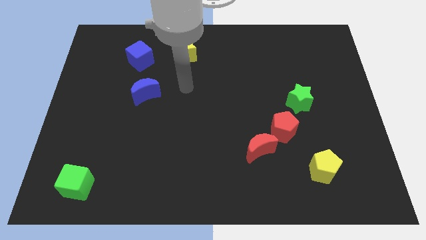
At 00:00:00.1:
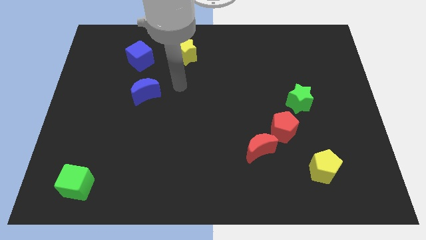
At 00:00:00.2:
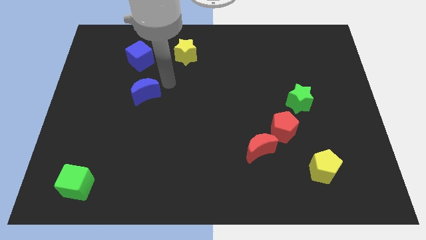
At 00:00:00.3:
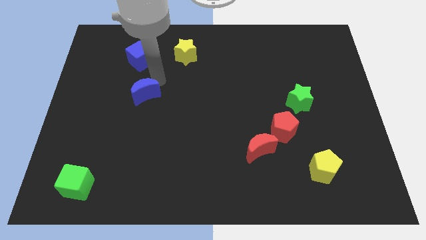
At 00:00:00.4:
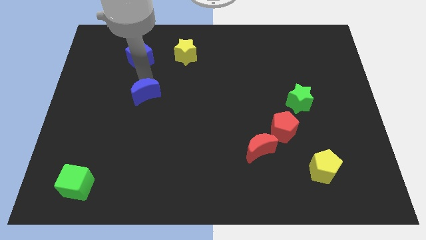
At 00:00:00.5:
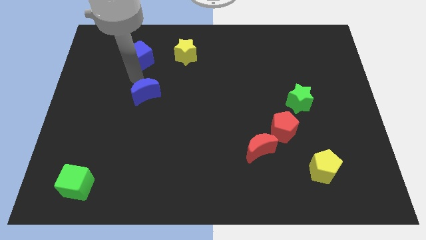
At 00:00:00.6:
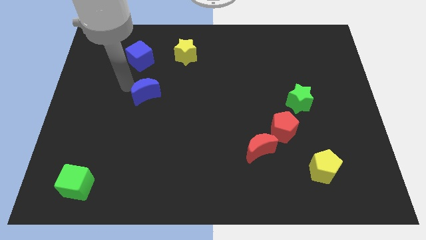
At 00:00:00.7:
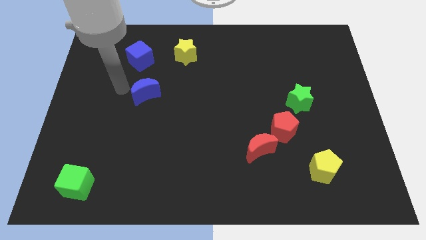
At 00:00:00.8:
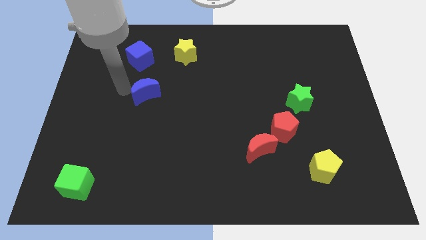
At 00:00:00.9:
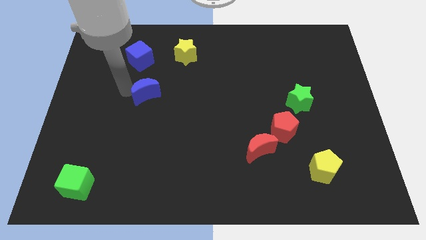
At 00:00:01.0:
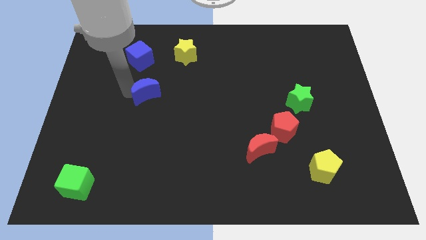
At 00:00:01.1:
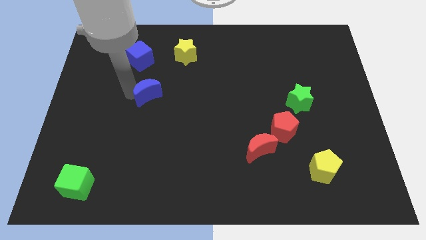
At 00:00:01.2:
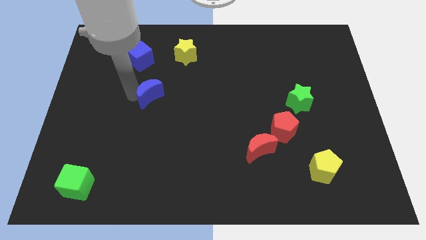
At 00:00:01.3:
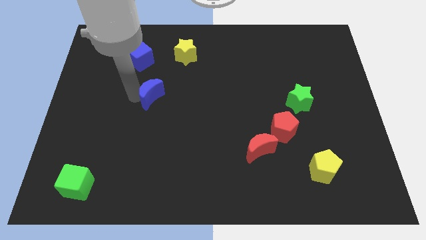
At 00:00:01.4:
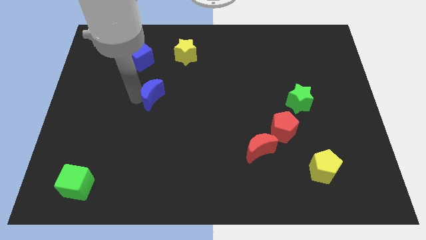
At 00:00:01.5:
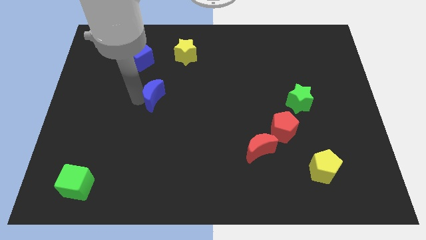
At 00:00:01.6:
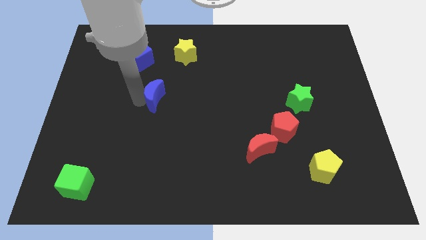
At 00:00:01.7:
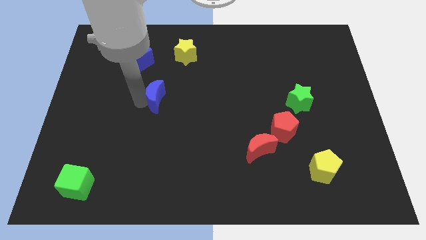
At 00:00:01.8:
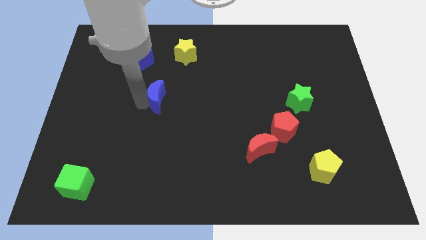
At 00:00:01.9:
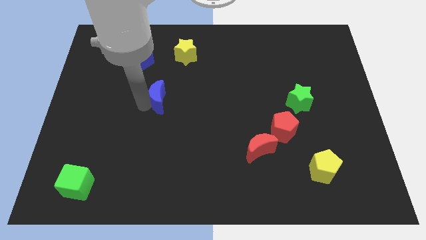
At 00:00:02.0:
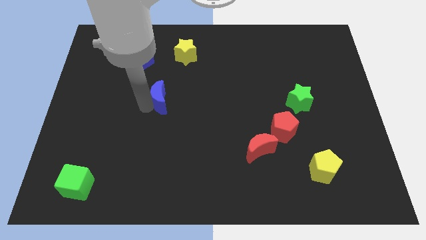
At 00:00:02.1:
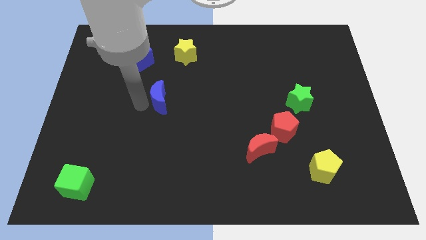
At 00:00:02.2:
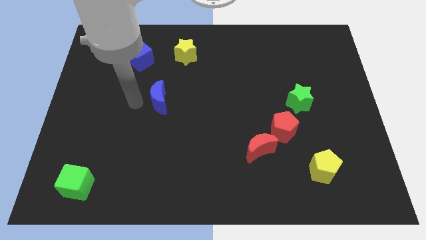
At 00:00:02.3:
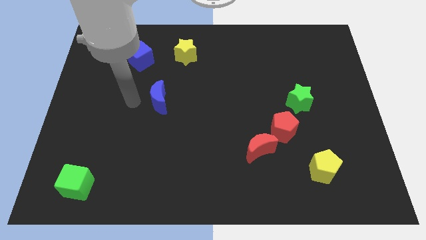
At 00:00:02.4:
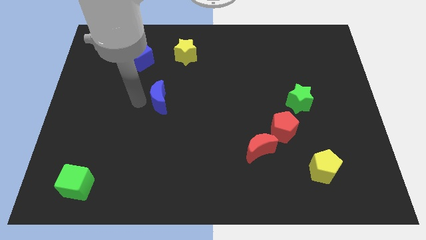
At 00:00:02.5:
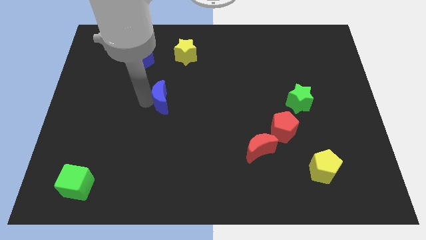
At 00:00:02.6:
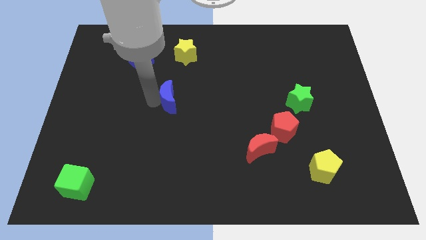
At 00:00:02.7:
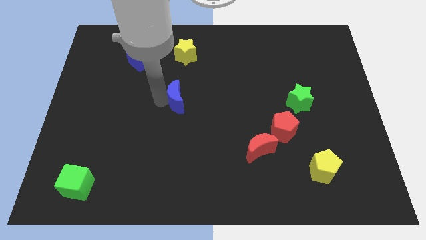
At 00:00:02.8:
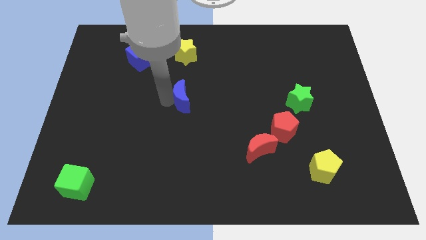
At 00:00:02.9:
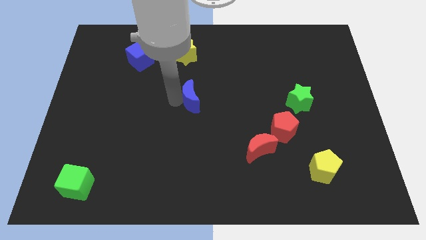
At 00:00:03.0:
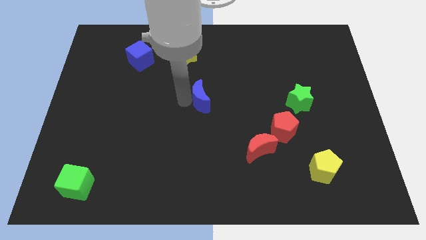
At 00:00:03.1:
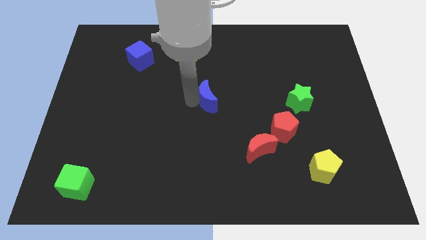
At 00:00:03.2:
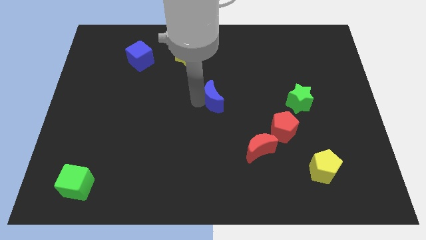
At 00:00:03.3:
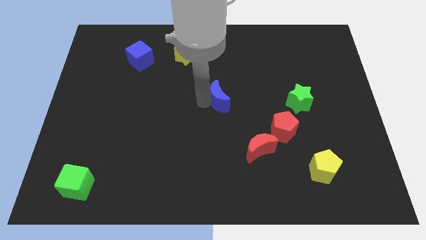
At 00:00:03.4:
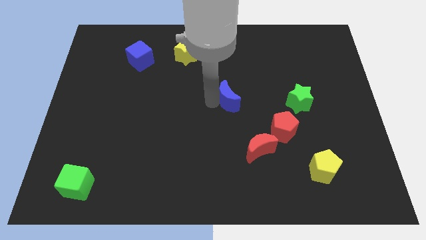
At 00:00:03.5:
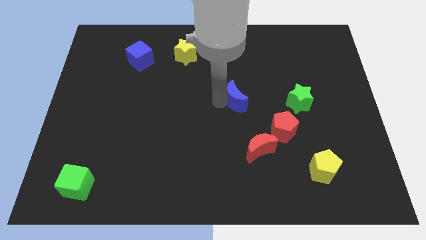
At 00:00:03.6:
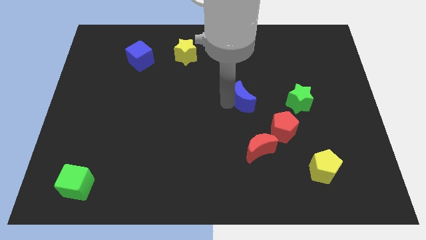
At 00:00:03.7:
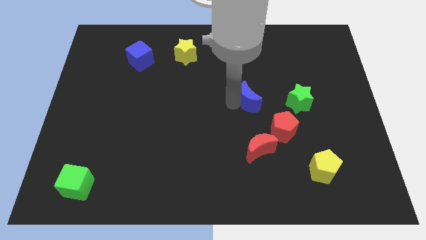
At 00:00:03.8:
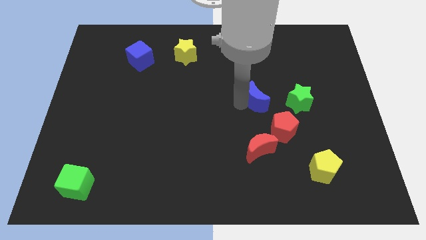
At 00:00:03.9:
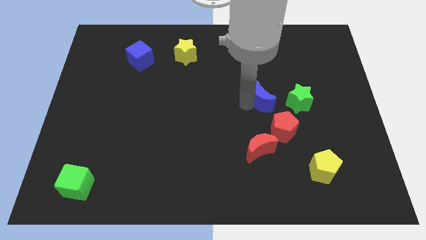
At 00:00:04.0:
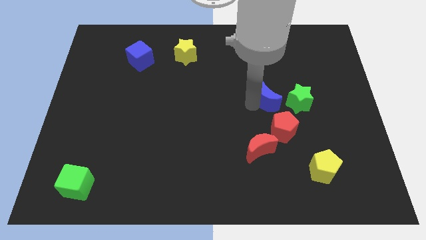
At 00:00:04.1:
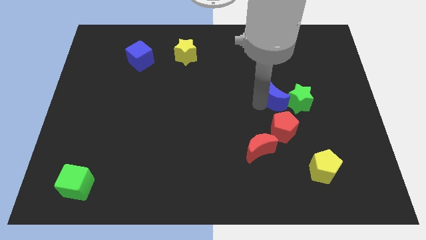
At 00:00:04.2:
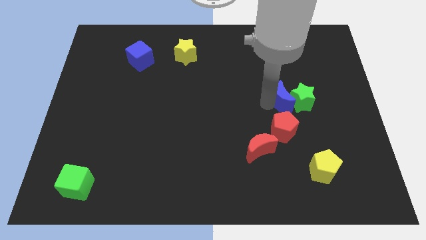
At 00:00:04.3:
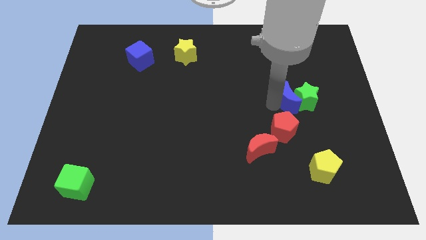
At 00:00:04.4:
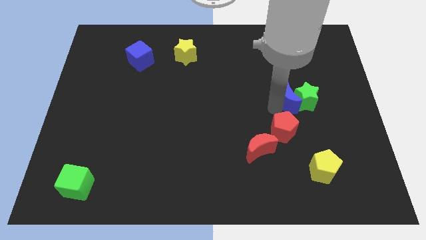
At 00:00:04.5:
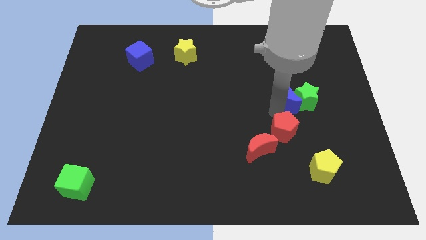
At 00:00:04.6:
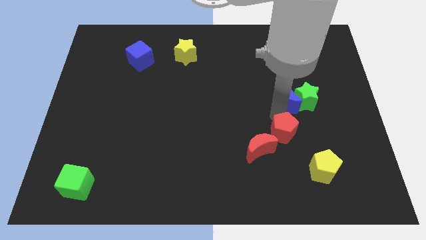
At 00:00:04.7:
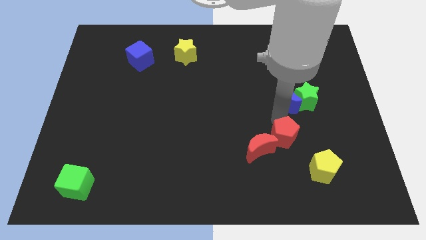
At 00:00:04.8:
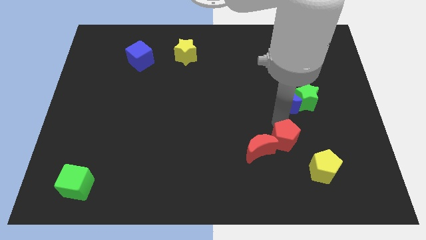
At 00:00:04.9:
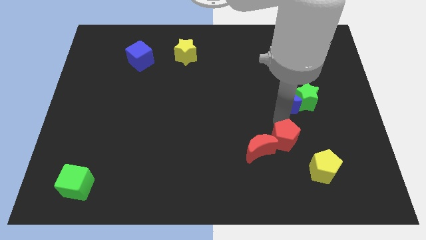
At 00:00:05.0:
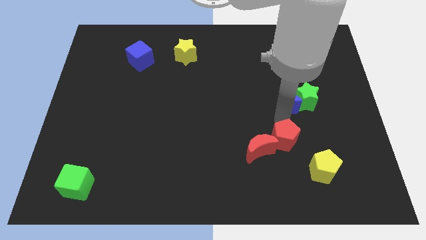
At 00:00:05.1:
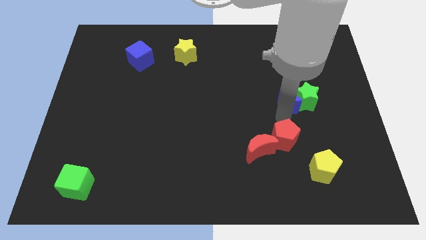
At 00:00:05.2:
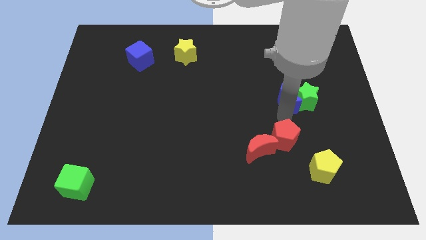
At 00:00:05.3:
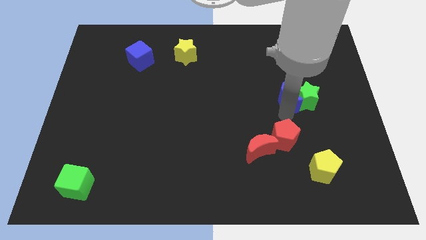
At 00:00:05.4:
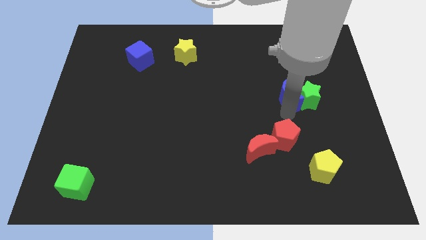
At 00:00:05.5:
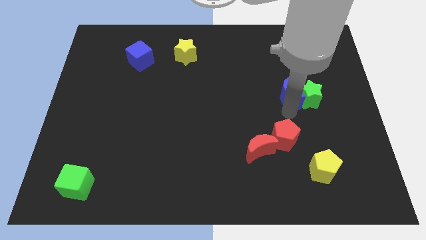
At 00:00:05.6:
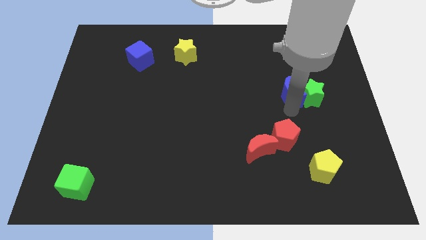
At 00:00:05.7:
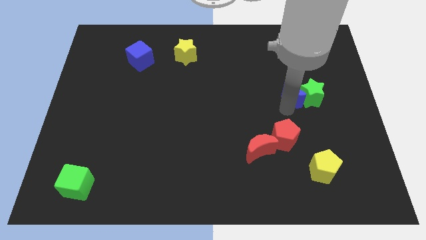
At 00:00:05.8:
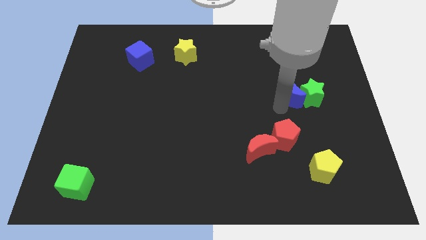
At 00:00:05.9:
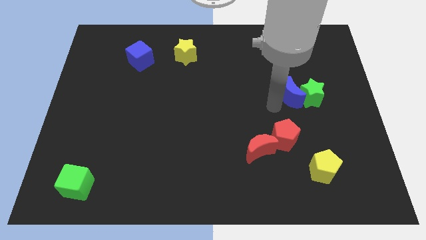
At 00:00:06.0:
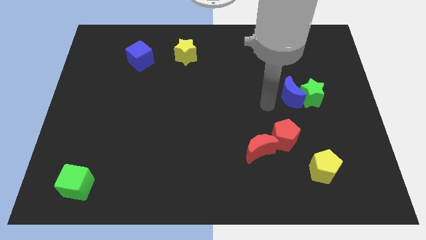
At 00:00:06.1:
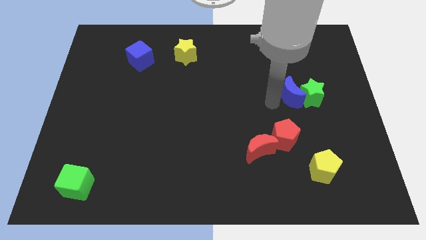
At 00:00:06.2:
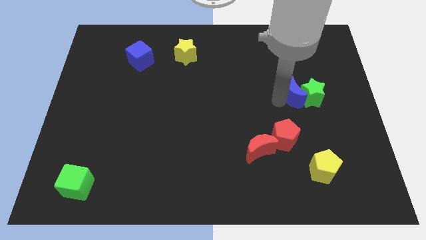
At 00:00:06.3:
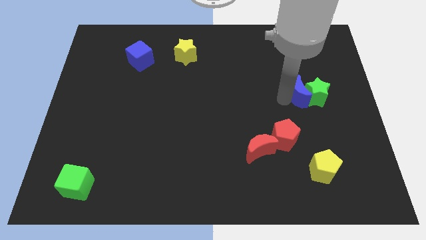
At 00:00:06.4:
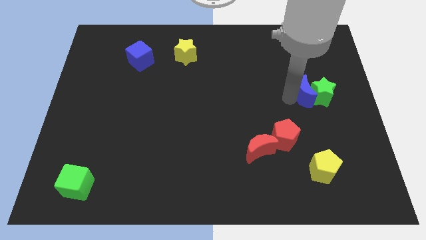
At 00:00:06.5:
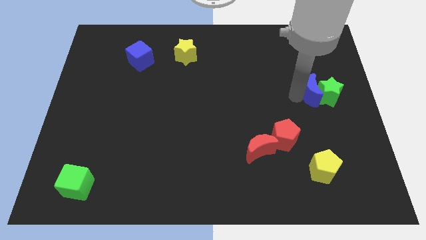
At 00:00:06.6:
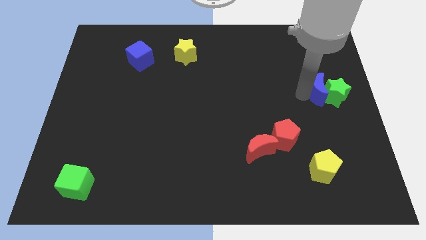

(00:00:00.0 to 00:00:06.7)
push the blue moon to the center right
